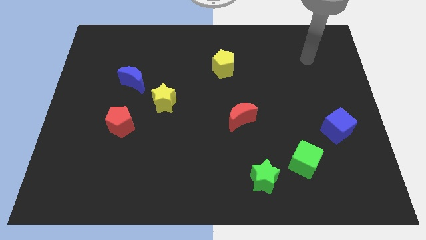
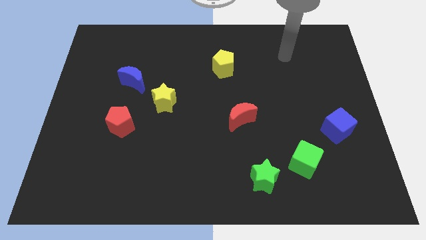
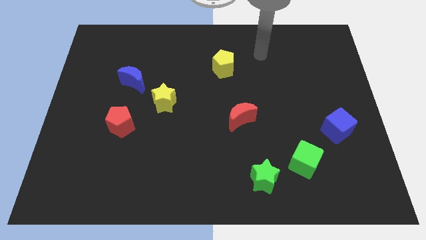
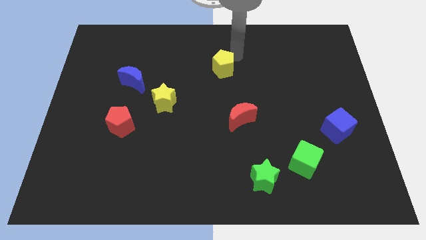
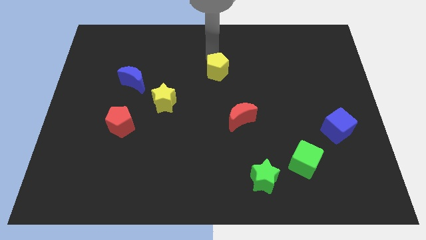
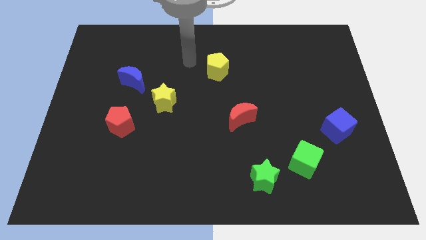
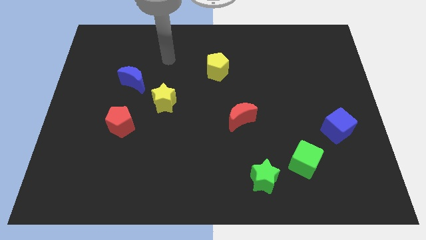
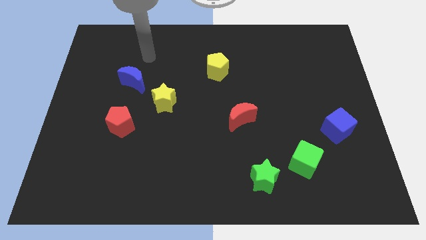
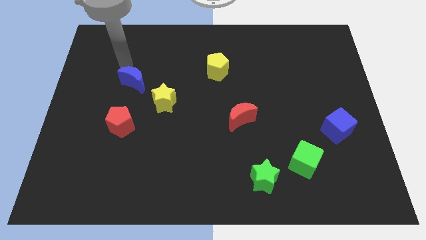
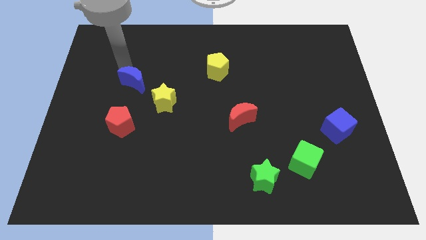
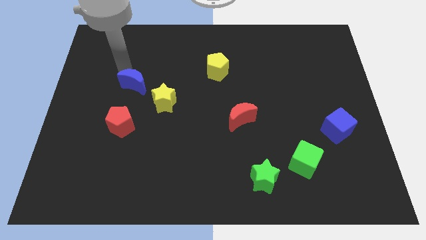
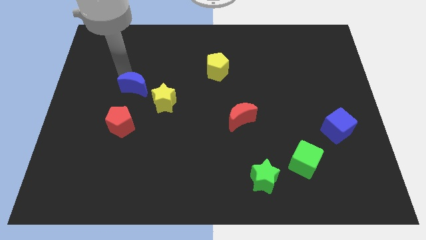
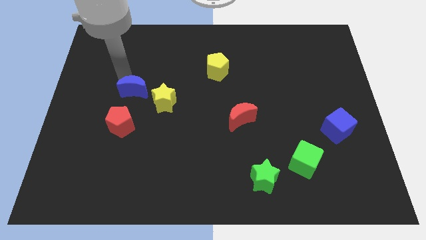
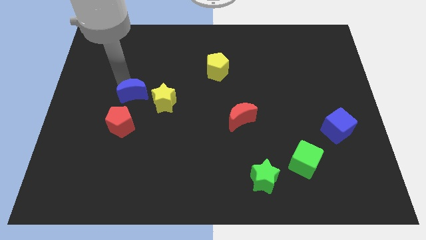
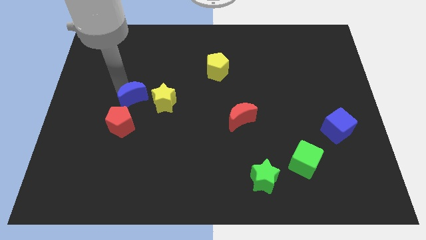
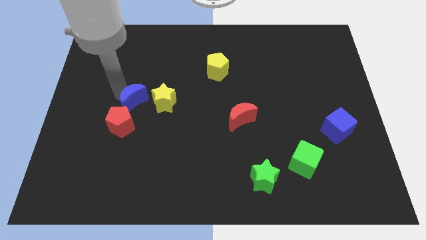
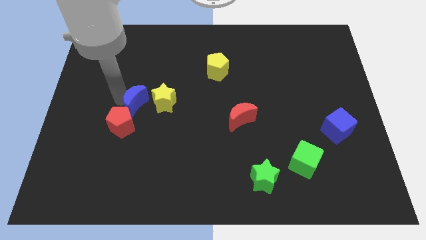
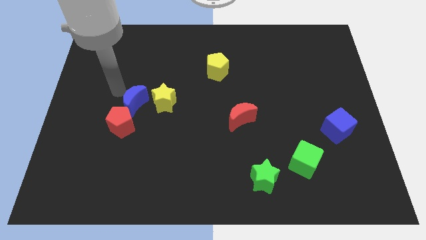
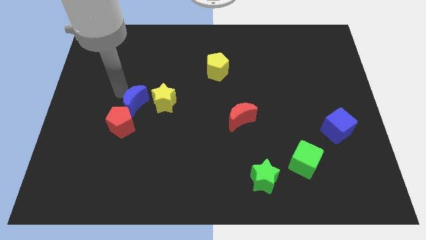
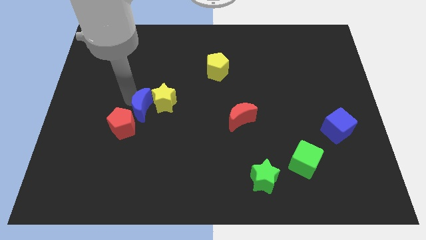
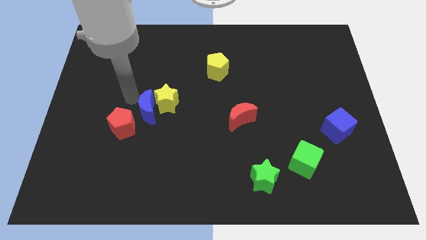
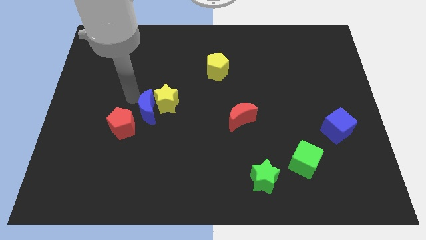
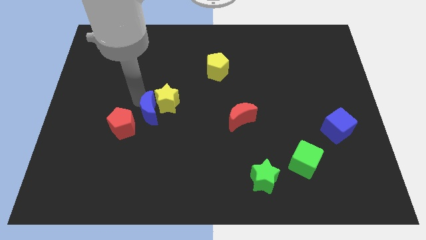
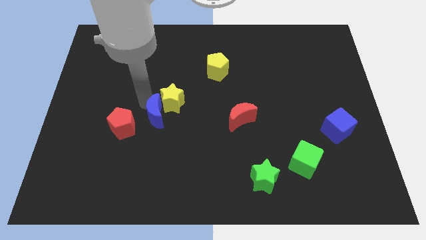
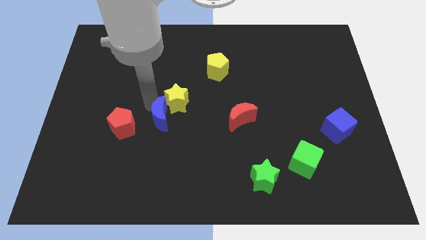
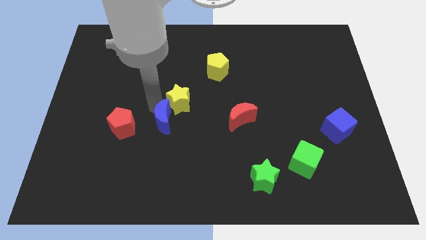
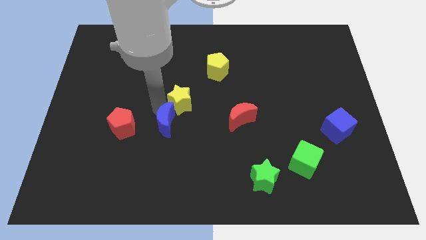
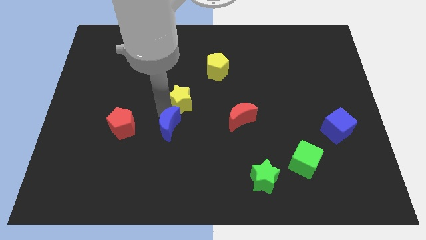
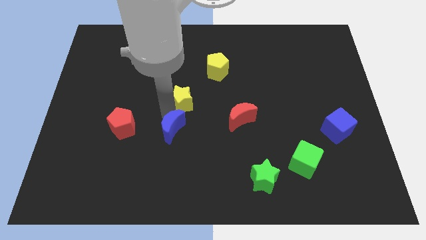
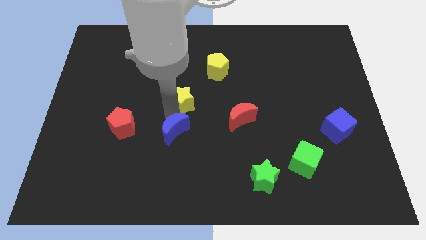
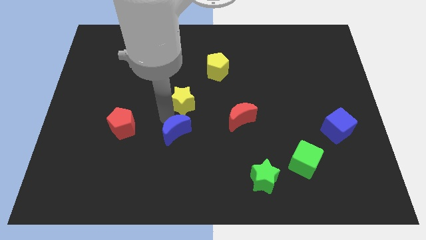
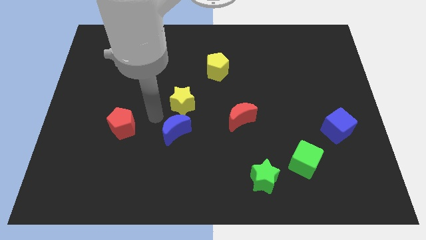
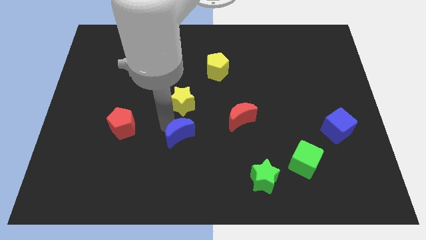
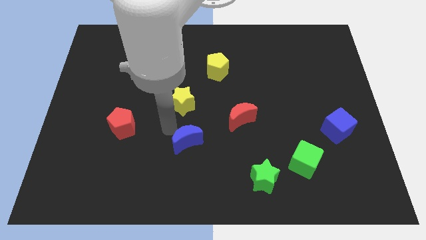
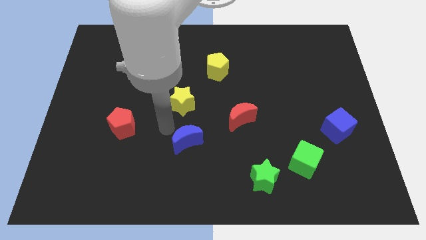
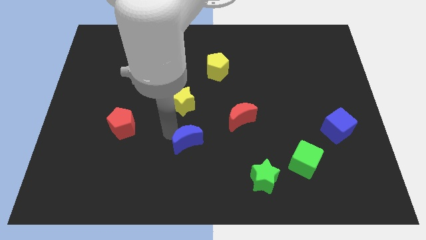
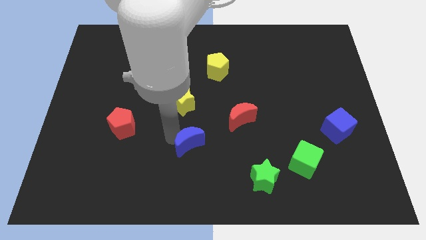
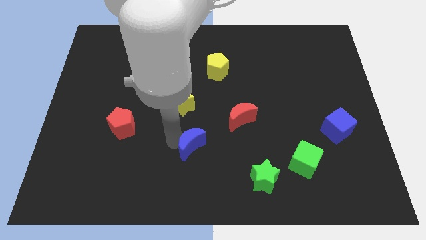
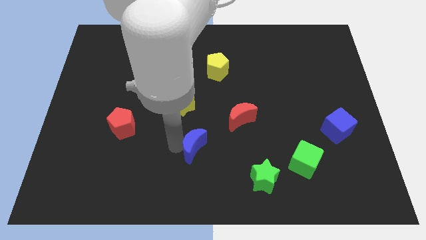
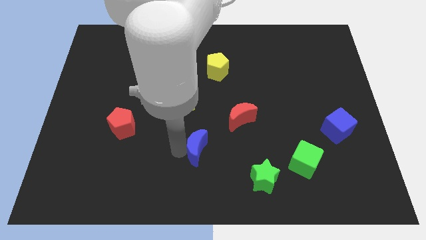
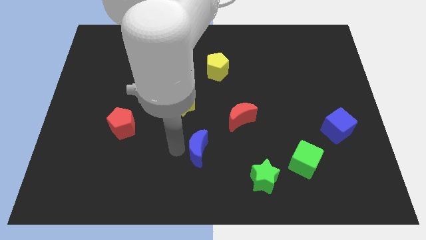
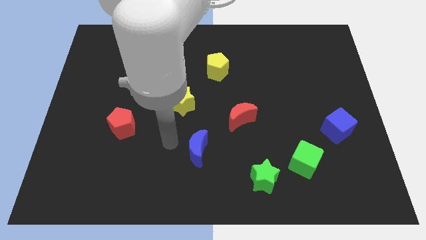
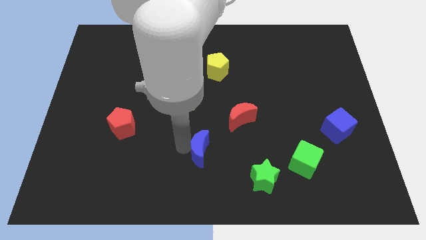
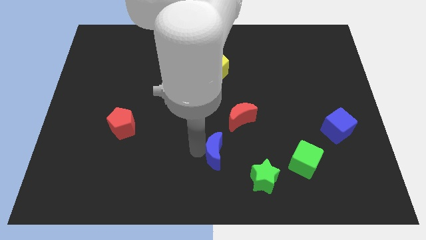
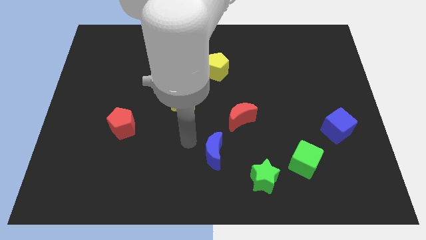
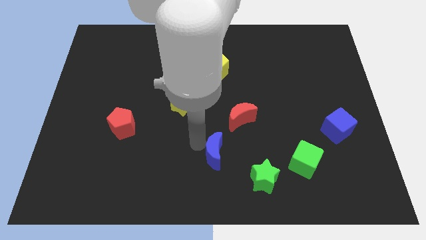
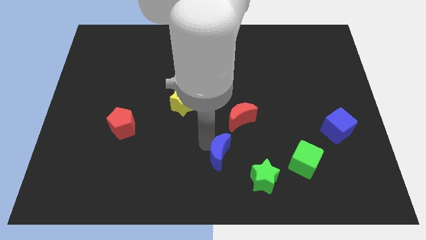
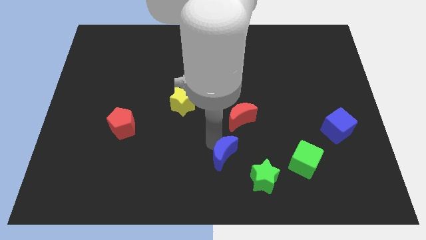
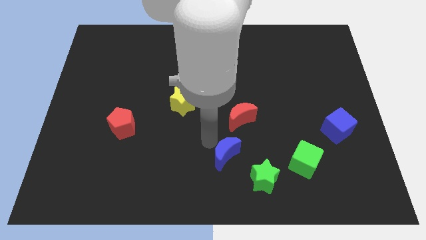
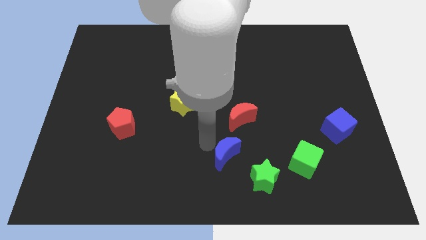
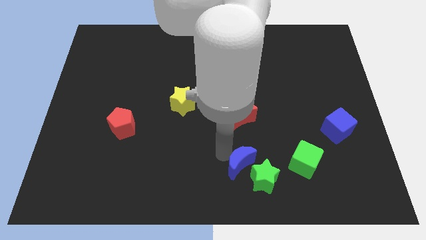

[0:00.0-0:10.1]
slide the blue moon towards the green star

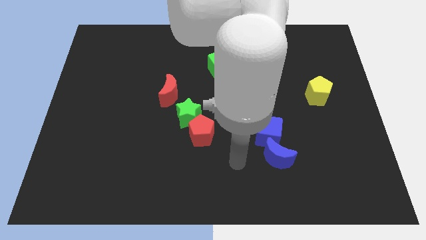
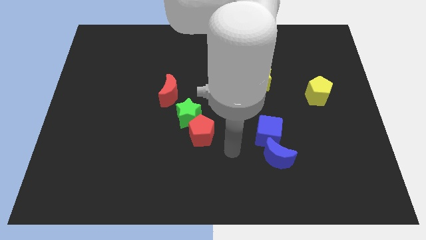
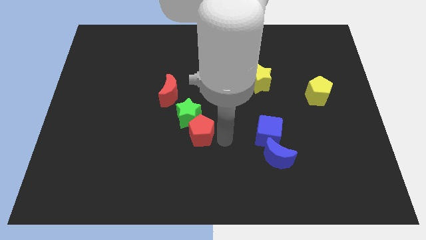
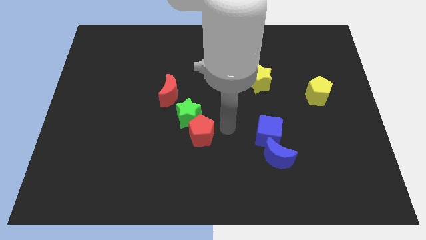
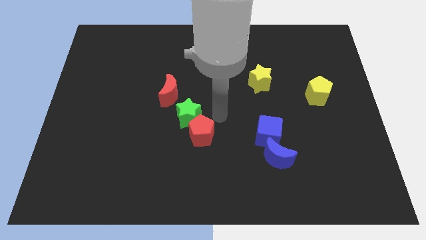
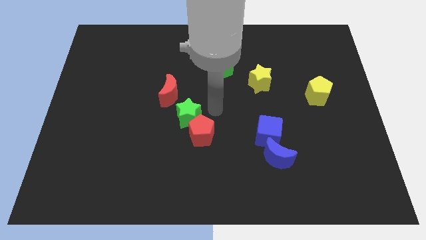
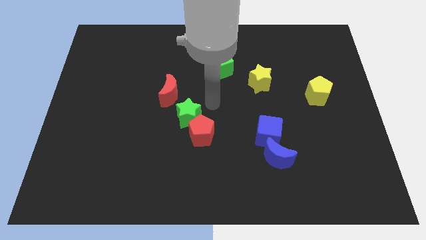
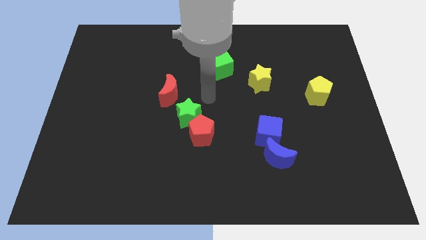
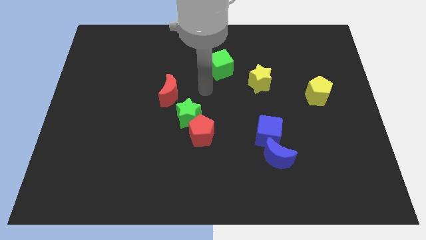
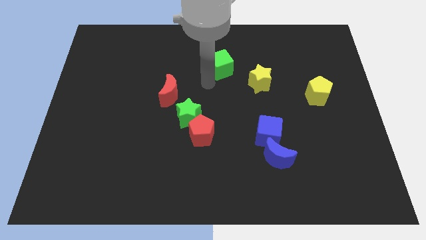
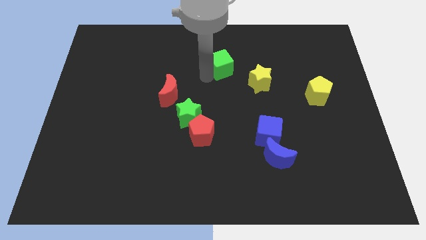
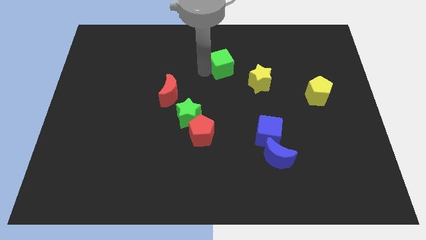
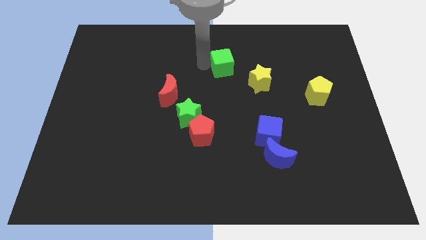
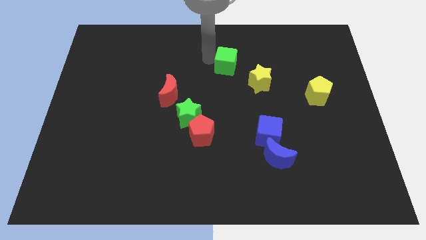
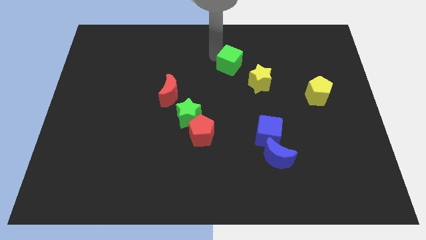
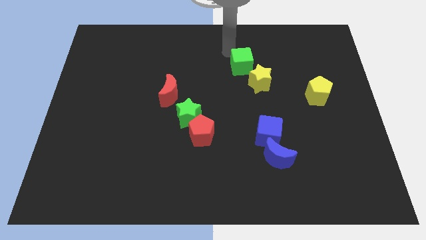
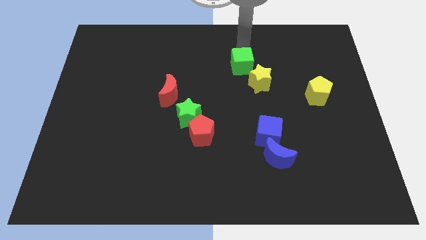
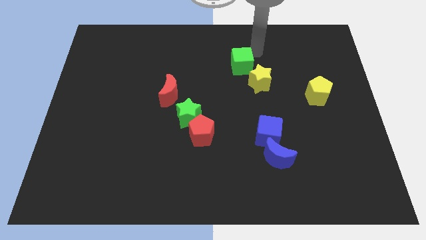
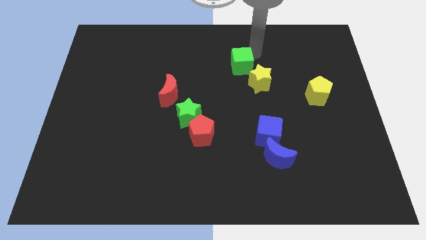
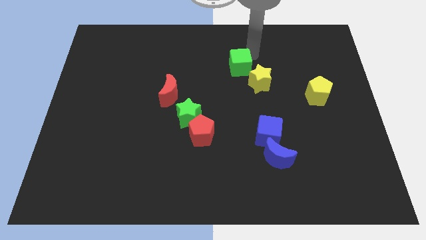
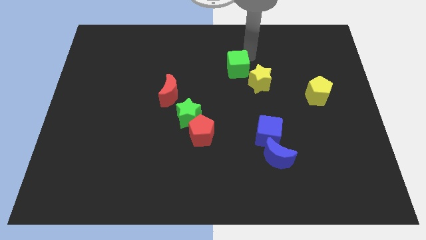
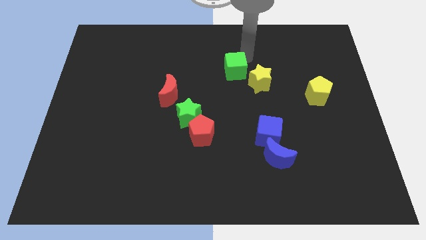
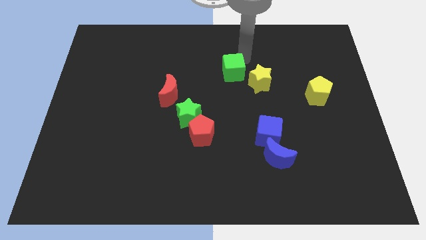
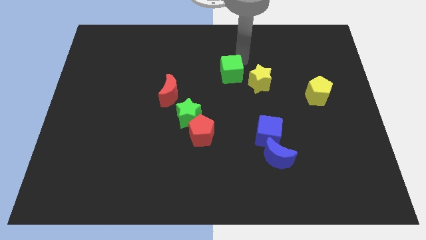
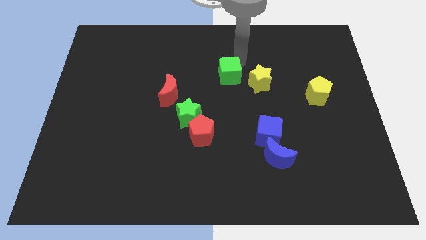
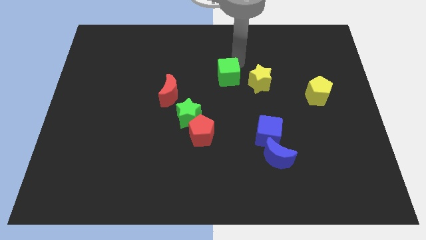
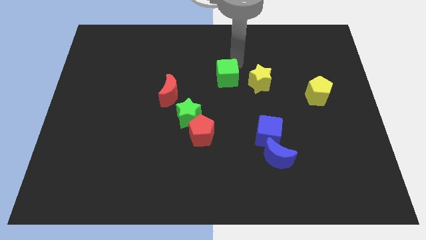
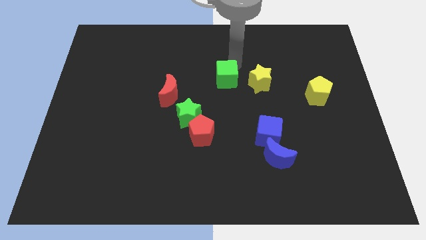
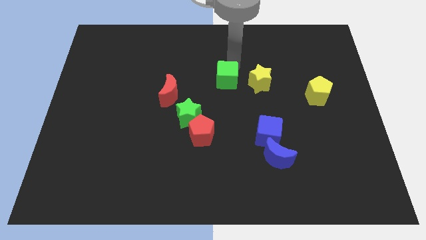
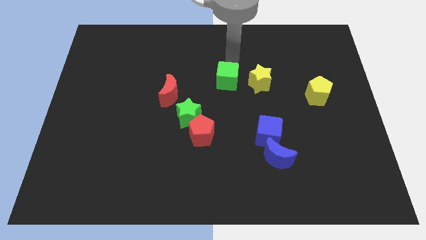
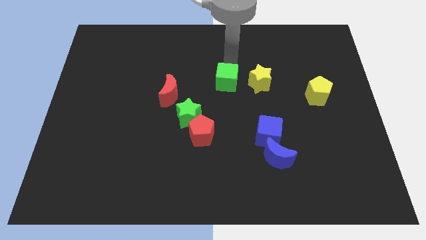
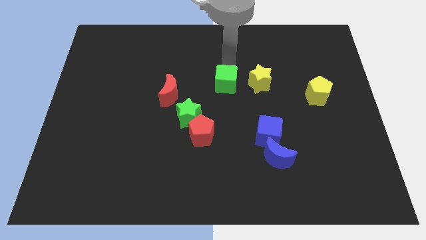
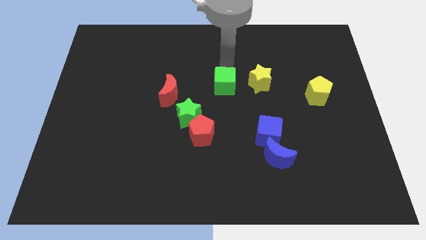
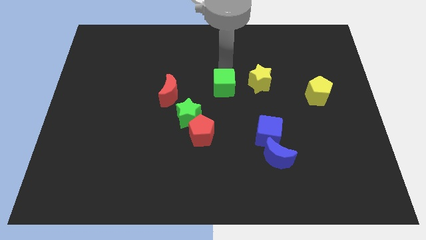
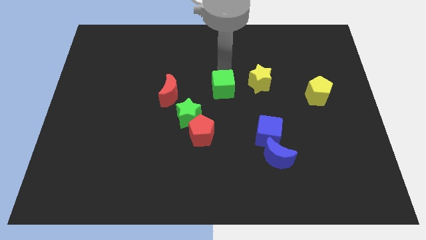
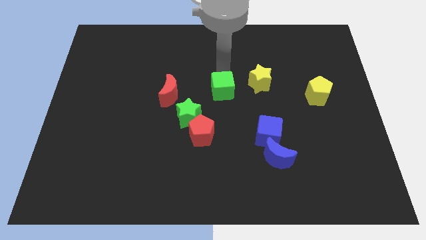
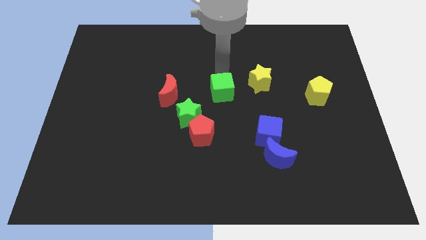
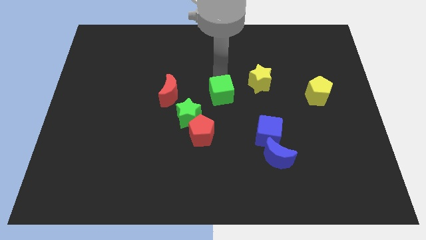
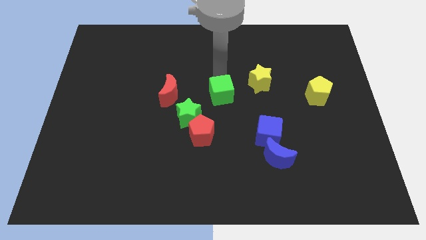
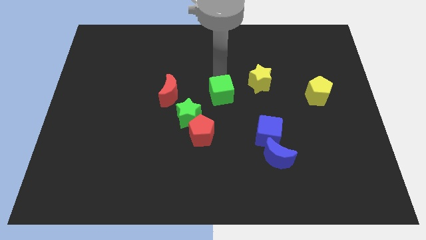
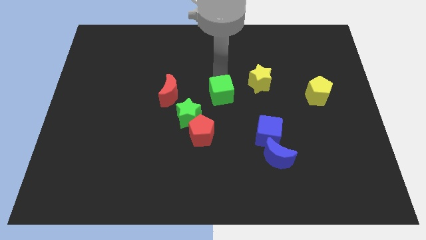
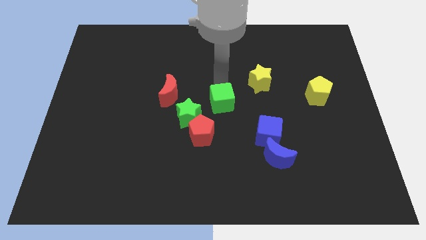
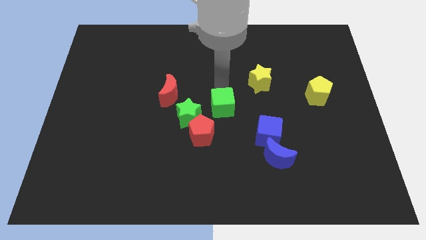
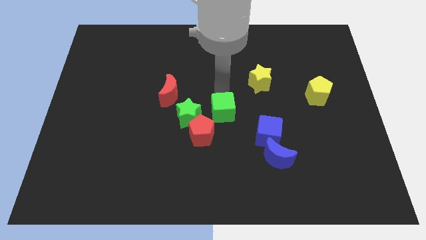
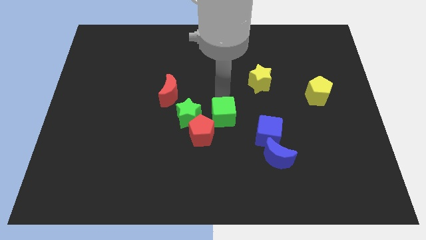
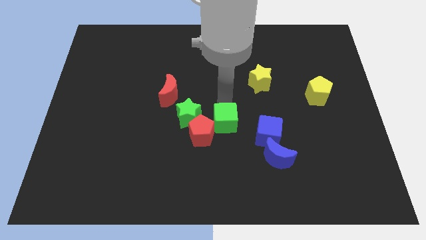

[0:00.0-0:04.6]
push the green cube towards the red pentagon
